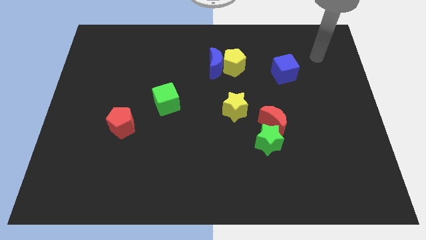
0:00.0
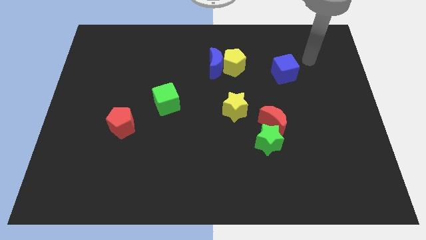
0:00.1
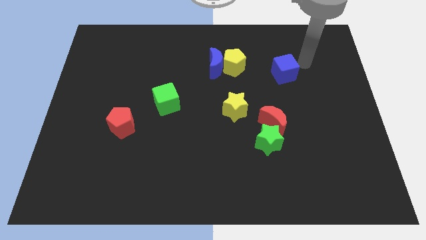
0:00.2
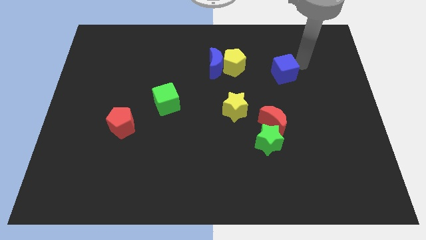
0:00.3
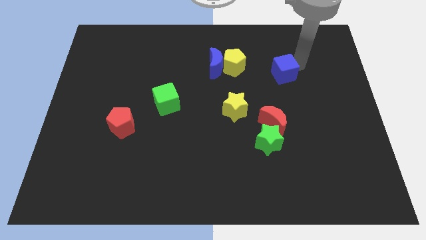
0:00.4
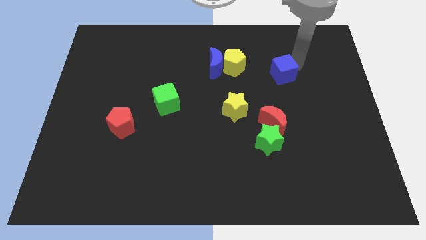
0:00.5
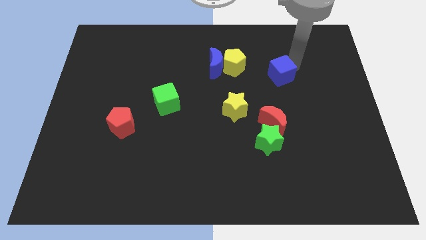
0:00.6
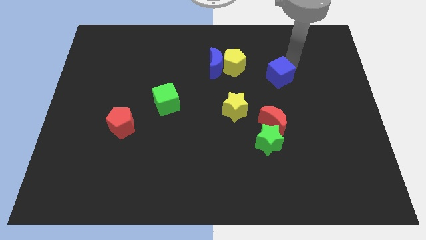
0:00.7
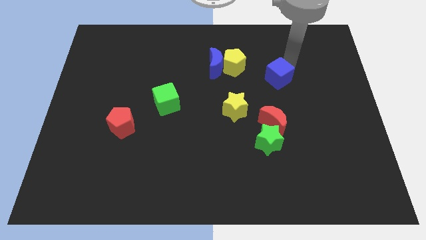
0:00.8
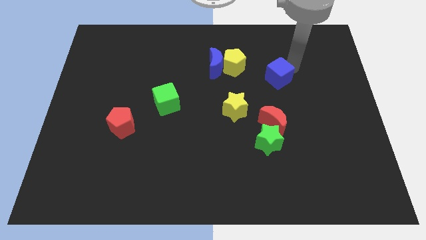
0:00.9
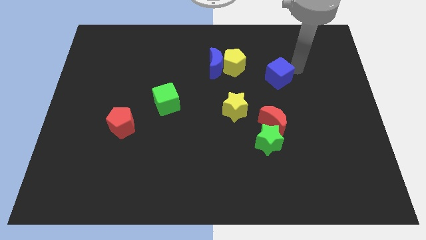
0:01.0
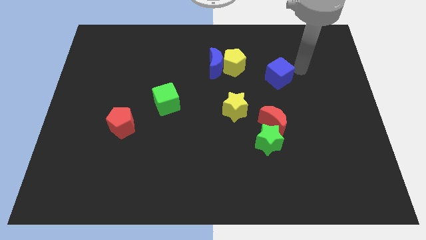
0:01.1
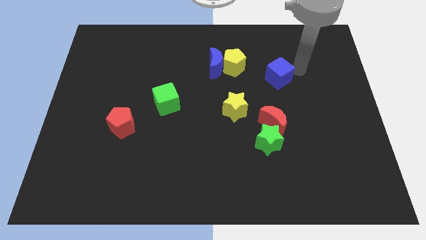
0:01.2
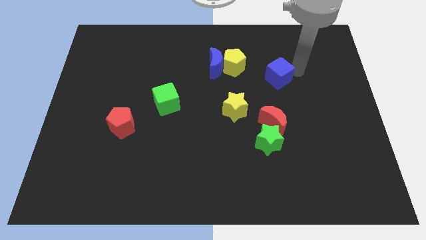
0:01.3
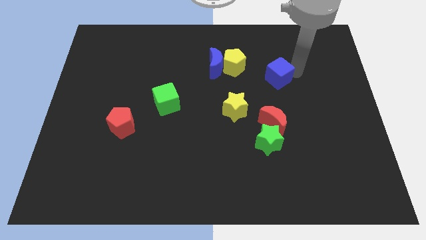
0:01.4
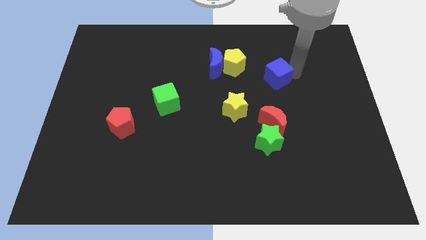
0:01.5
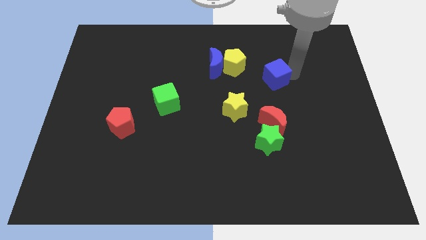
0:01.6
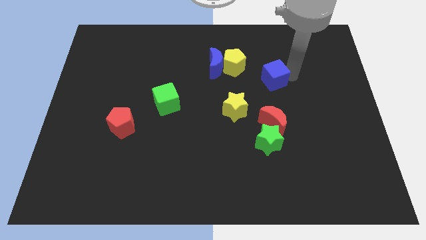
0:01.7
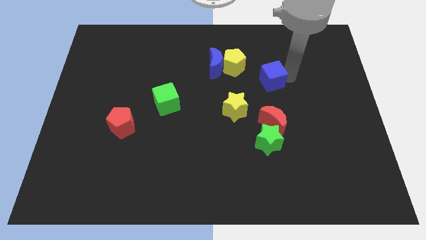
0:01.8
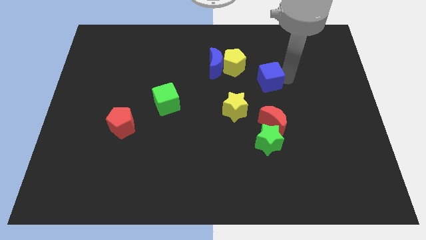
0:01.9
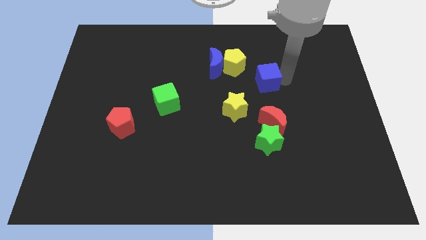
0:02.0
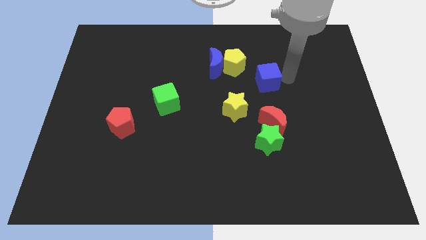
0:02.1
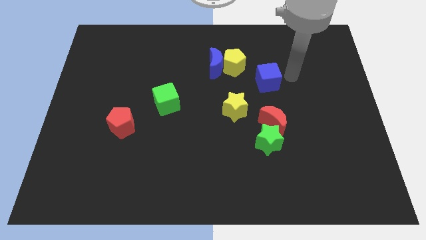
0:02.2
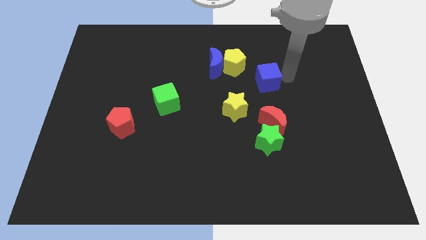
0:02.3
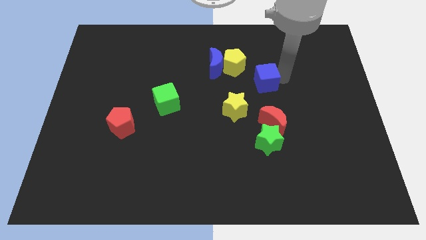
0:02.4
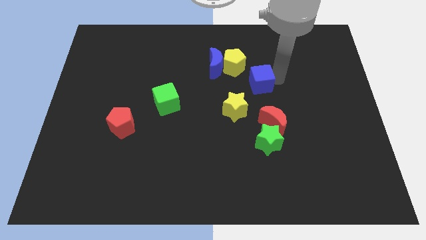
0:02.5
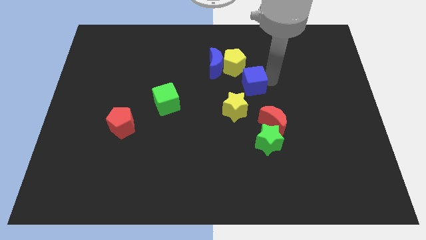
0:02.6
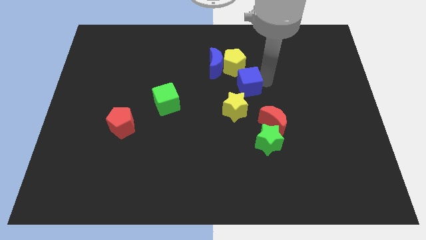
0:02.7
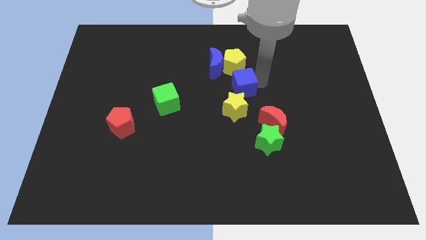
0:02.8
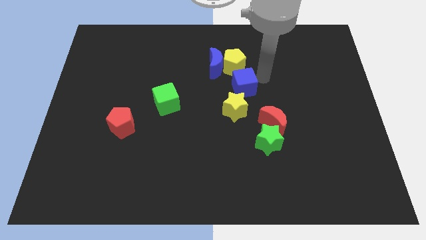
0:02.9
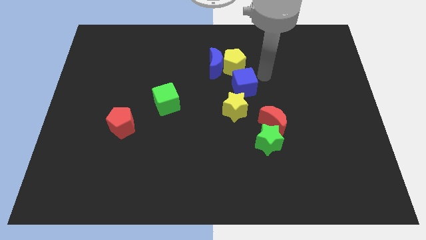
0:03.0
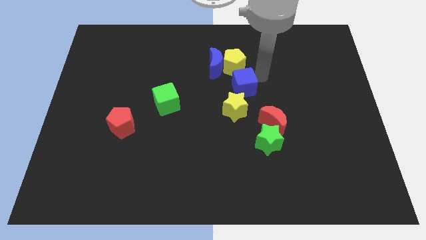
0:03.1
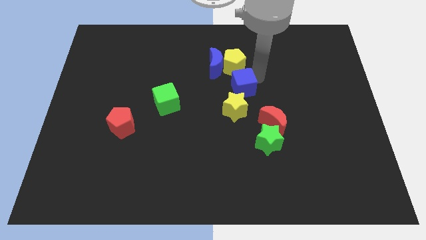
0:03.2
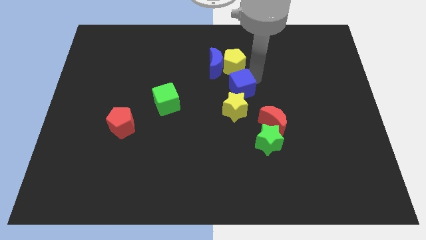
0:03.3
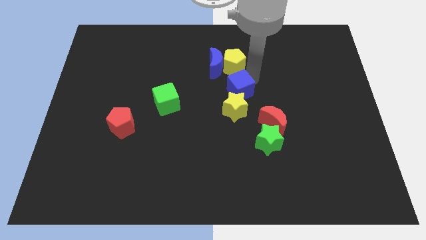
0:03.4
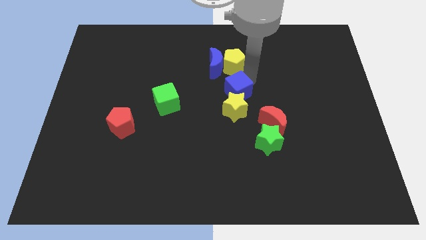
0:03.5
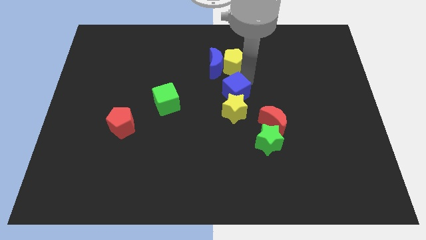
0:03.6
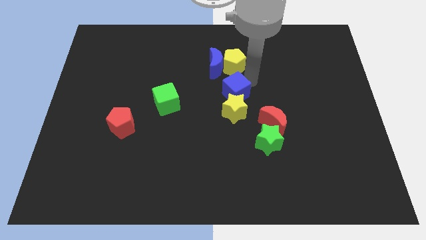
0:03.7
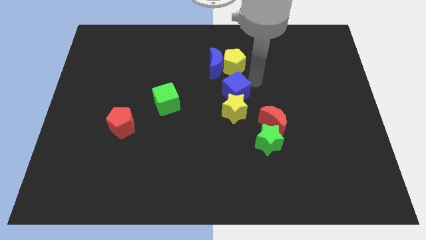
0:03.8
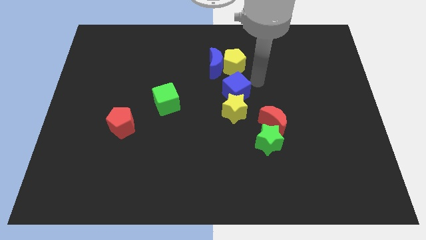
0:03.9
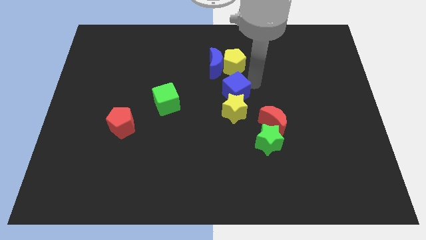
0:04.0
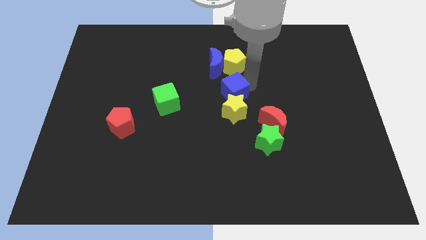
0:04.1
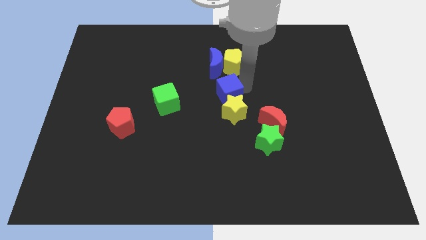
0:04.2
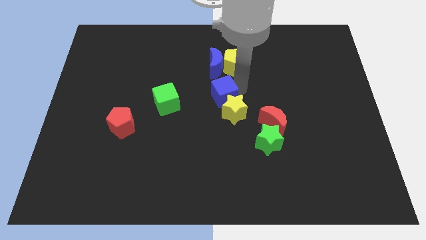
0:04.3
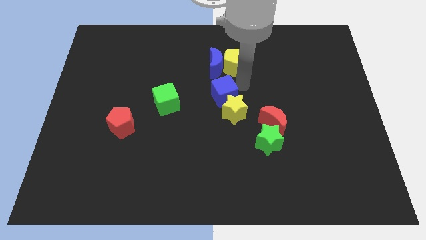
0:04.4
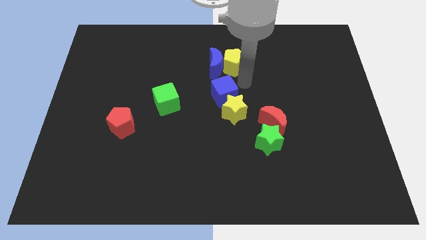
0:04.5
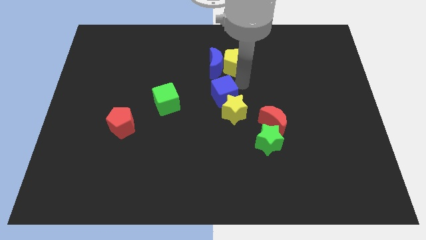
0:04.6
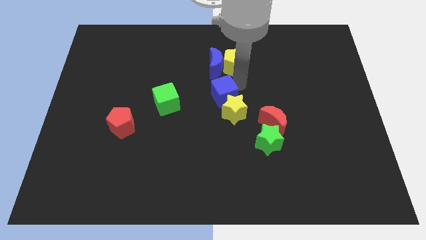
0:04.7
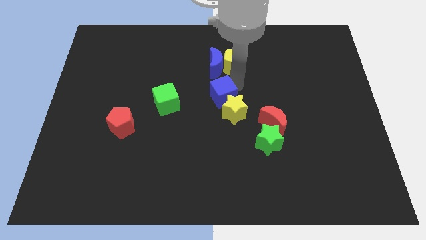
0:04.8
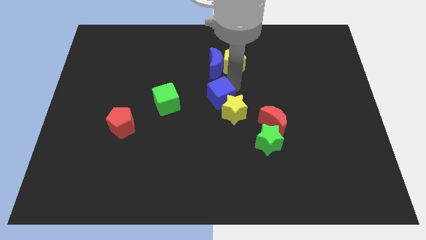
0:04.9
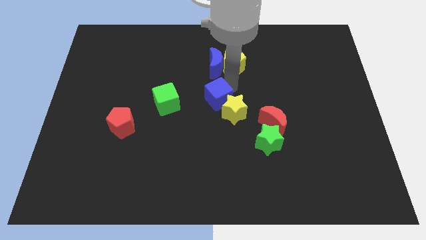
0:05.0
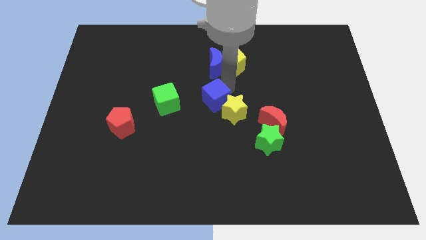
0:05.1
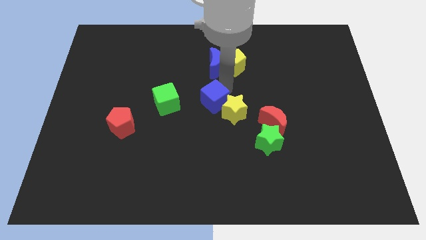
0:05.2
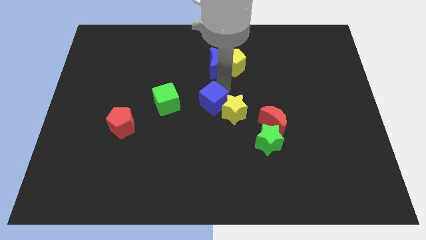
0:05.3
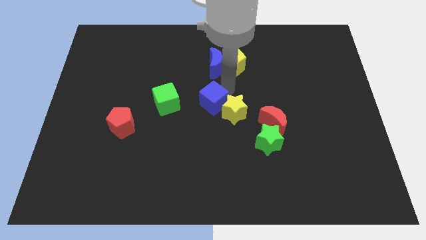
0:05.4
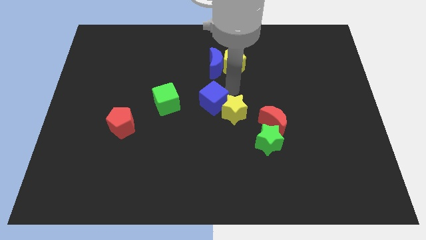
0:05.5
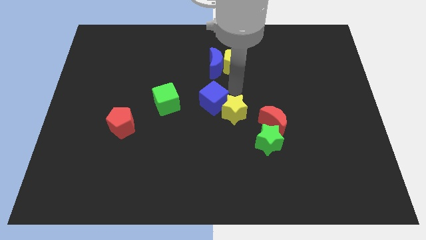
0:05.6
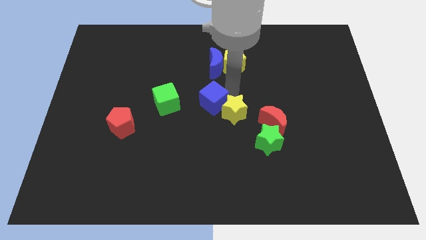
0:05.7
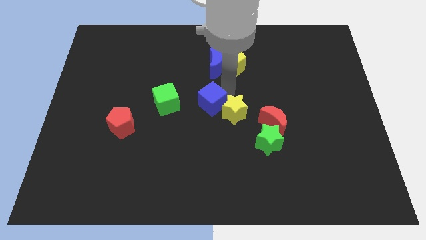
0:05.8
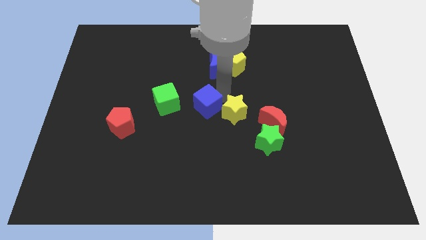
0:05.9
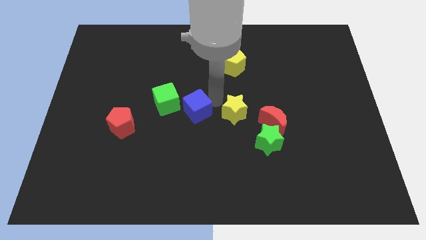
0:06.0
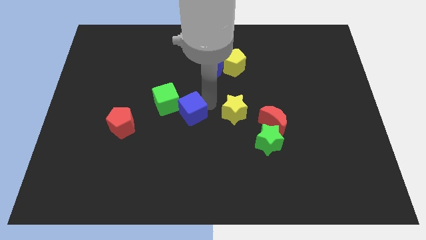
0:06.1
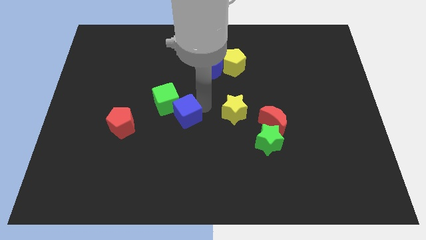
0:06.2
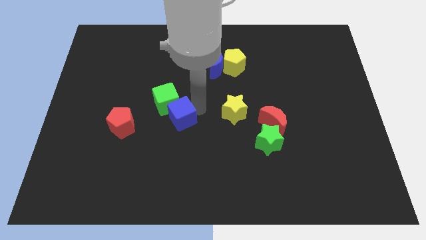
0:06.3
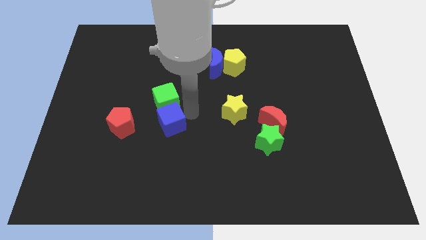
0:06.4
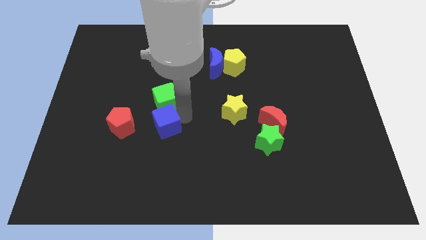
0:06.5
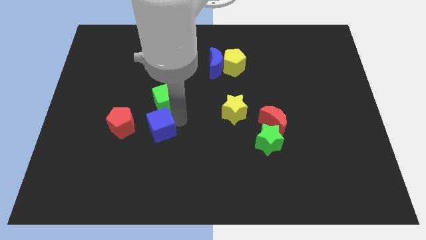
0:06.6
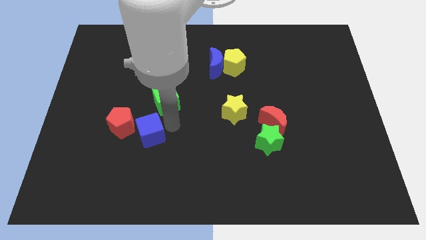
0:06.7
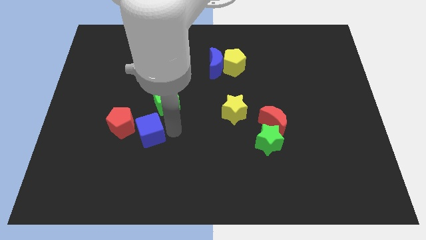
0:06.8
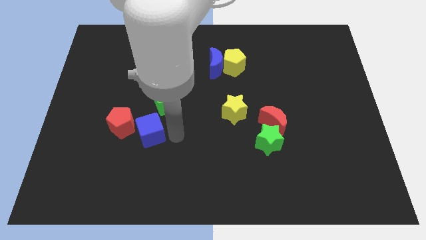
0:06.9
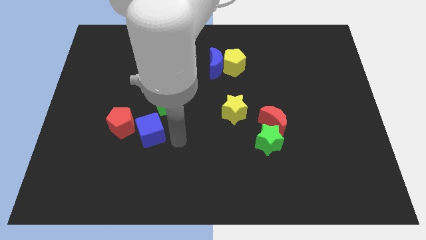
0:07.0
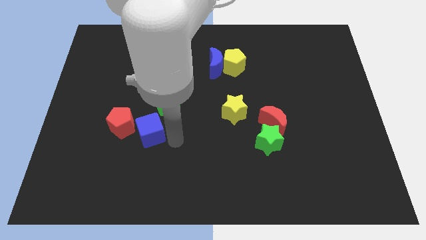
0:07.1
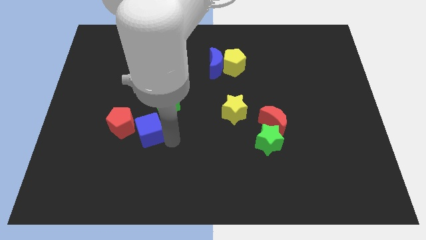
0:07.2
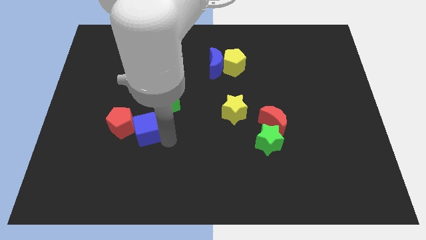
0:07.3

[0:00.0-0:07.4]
put the blue cube to the red pentagon

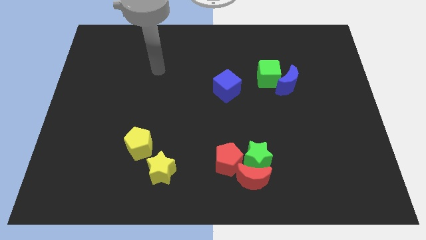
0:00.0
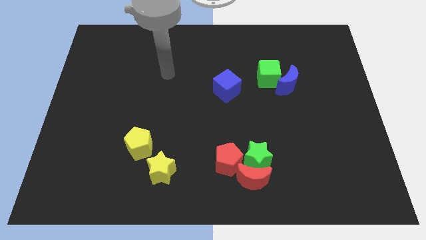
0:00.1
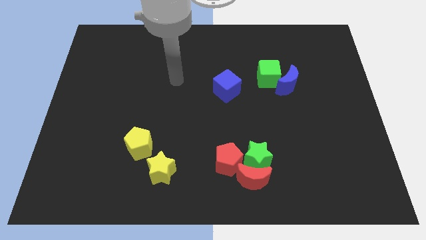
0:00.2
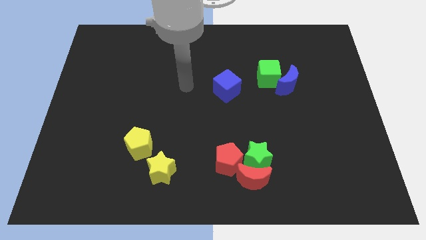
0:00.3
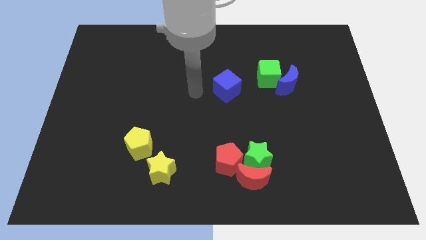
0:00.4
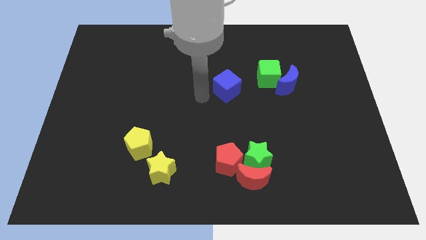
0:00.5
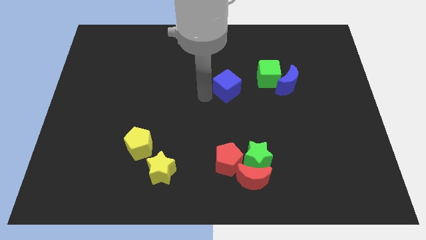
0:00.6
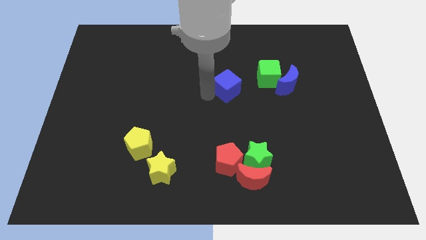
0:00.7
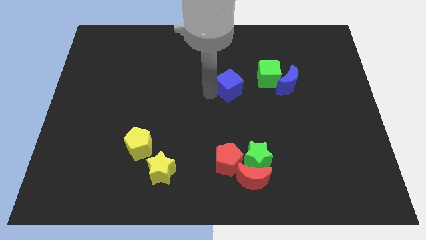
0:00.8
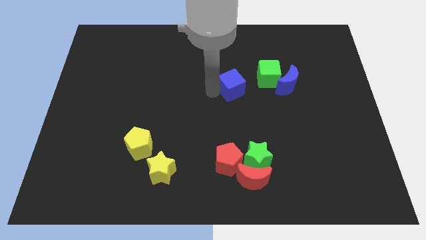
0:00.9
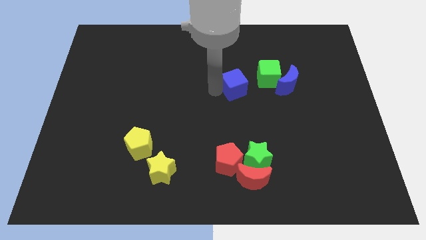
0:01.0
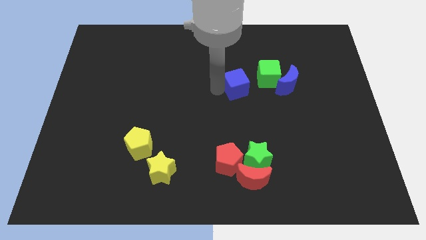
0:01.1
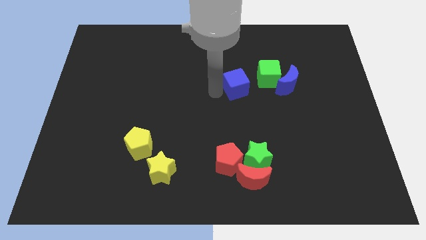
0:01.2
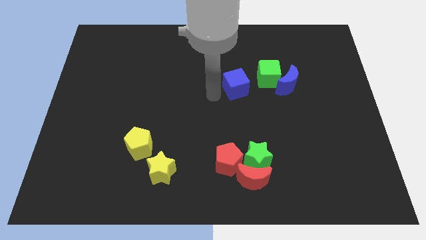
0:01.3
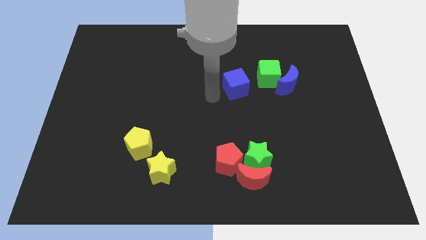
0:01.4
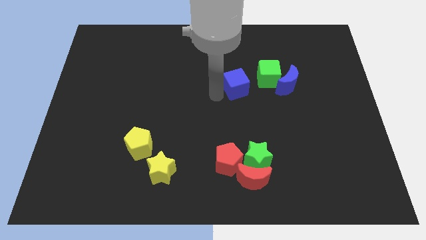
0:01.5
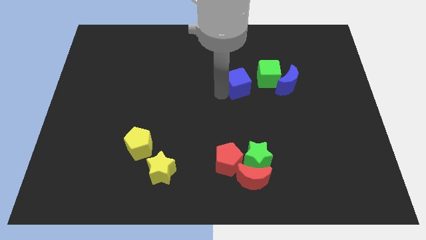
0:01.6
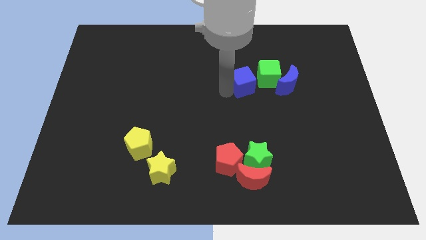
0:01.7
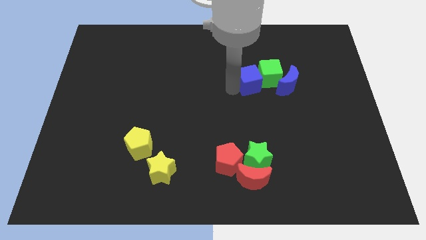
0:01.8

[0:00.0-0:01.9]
move the blue cube next to the green cube
